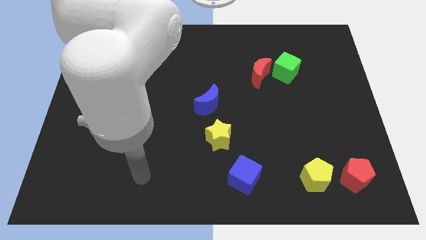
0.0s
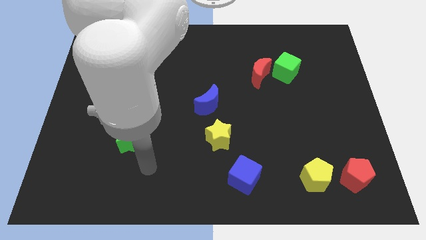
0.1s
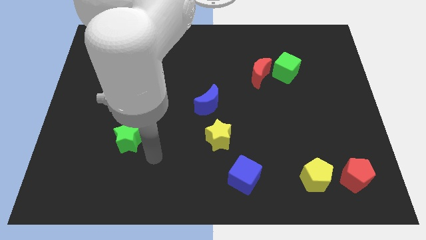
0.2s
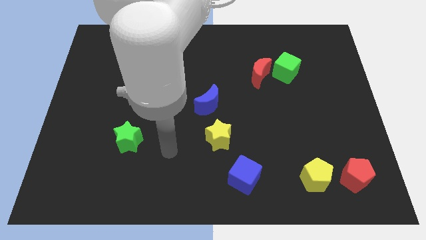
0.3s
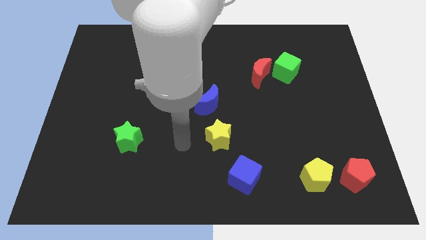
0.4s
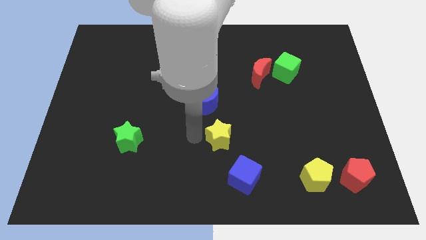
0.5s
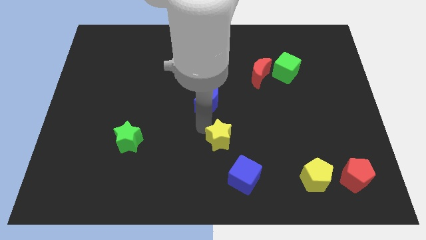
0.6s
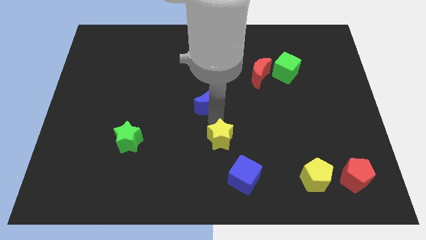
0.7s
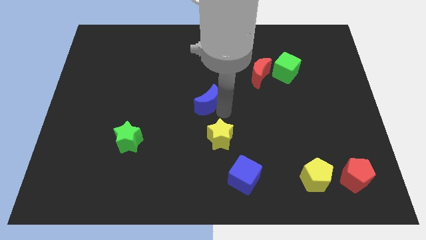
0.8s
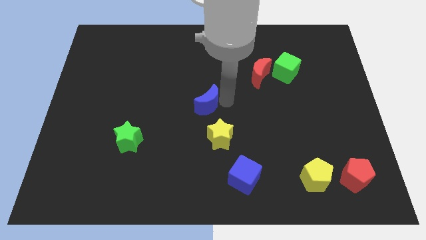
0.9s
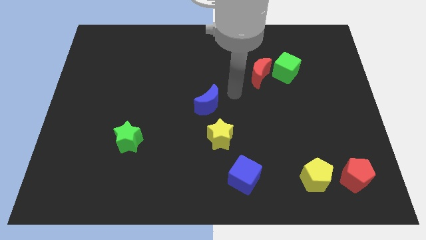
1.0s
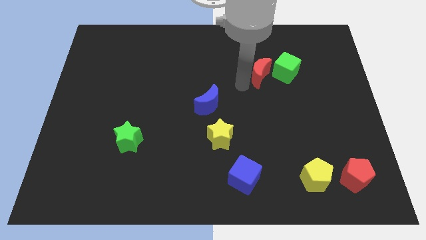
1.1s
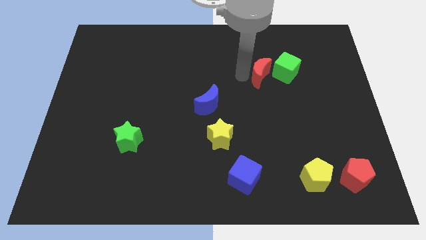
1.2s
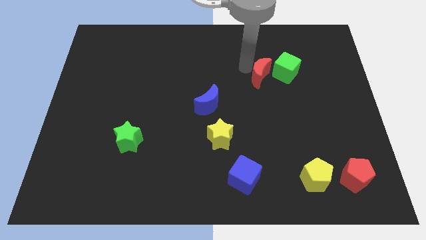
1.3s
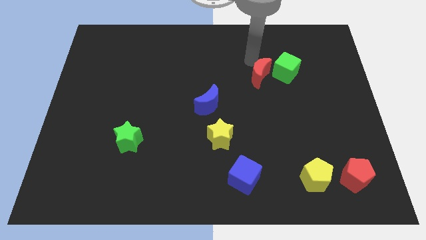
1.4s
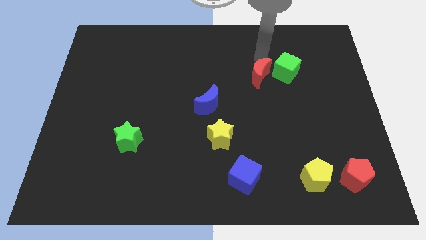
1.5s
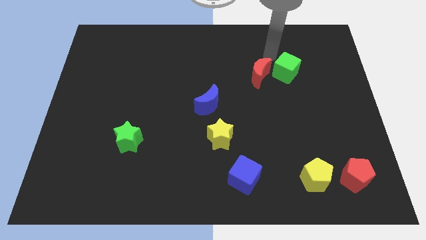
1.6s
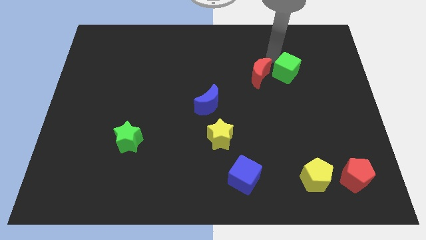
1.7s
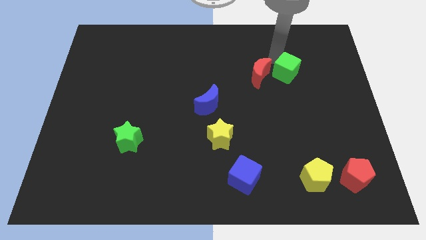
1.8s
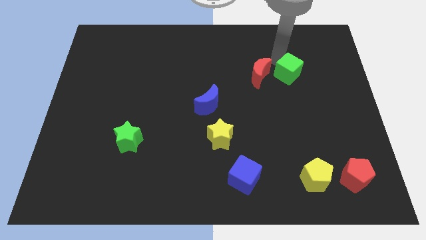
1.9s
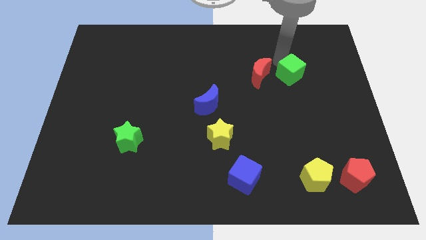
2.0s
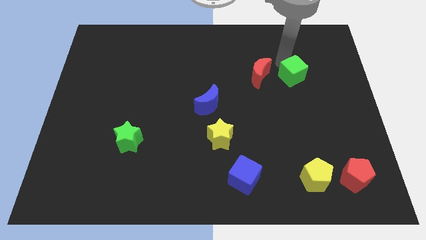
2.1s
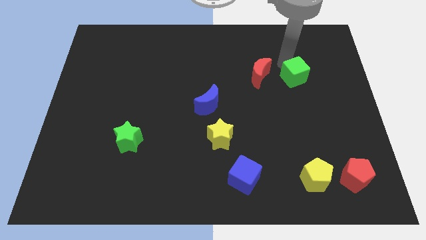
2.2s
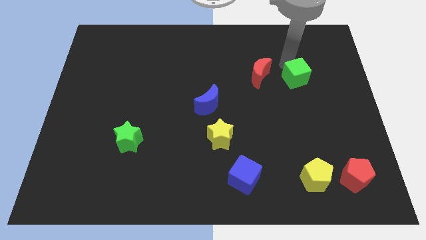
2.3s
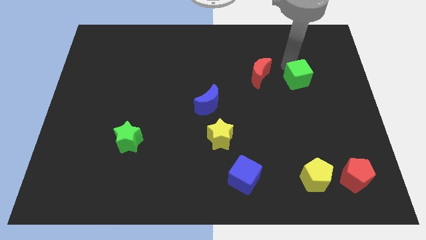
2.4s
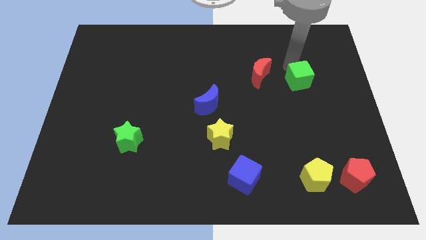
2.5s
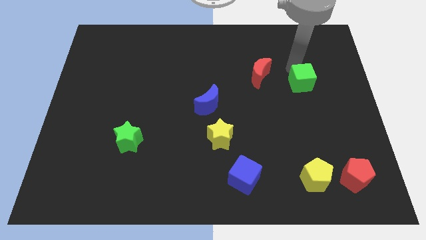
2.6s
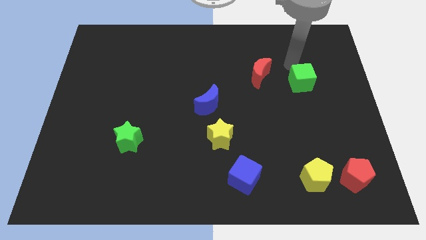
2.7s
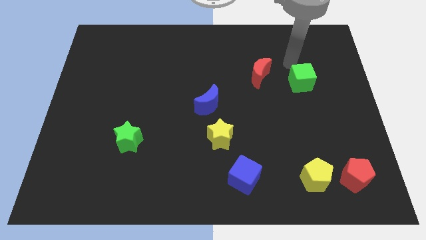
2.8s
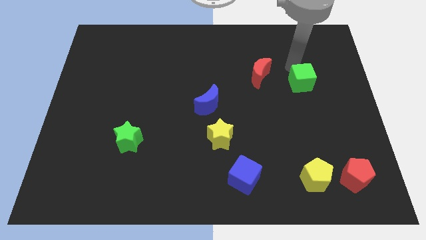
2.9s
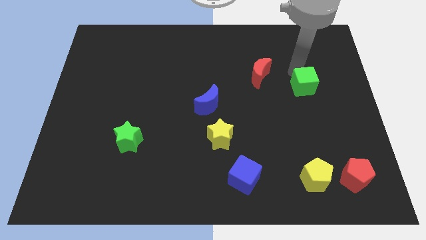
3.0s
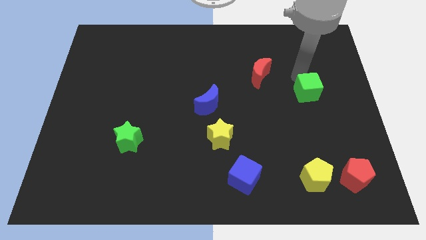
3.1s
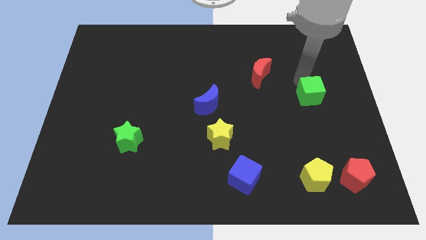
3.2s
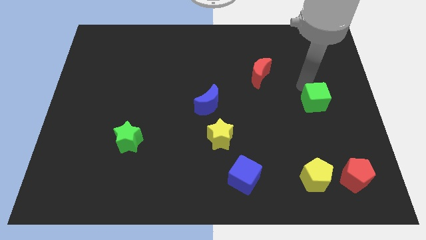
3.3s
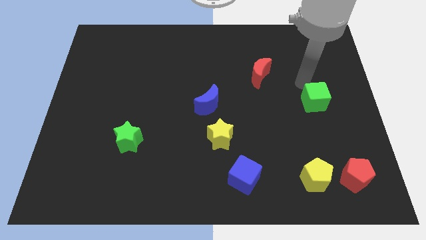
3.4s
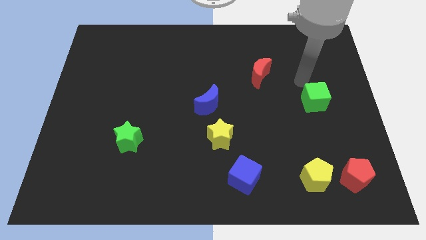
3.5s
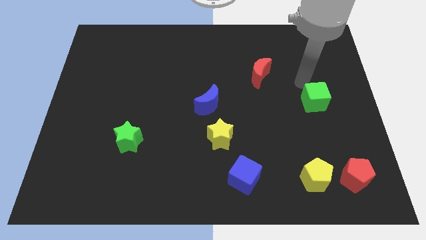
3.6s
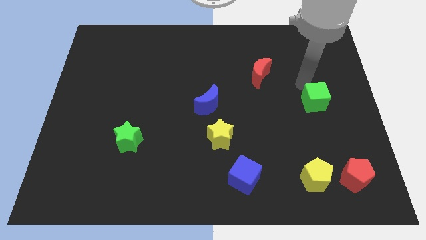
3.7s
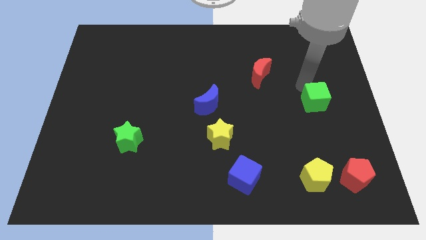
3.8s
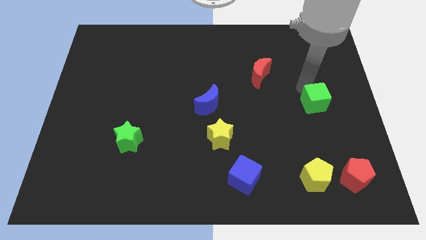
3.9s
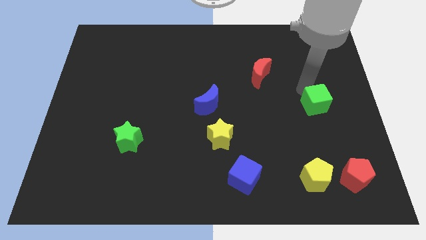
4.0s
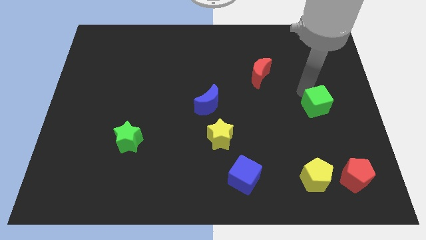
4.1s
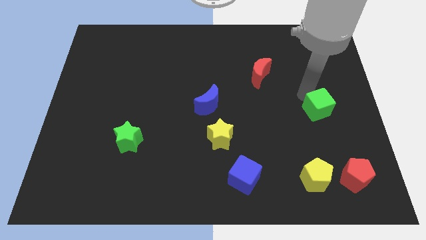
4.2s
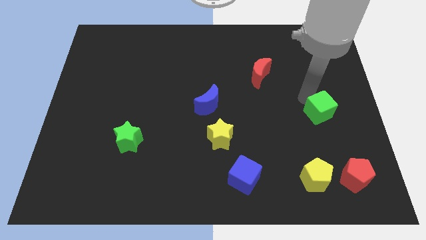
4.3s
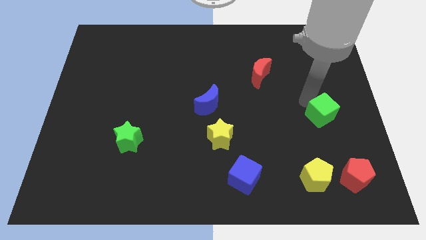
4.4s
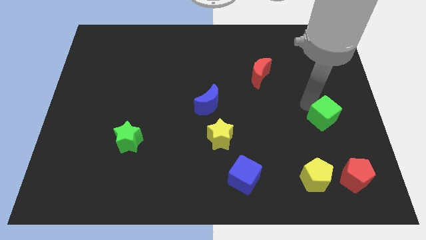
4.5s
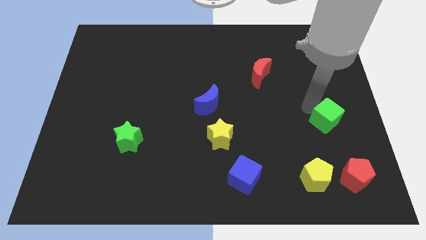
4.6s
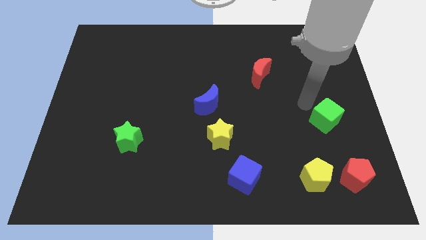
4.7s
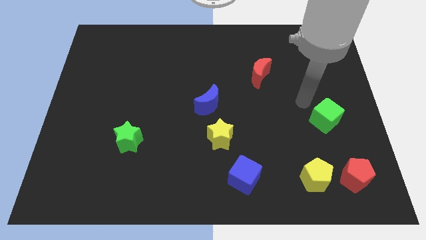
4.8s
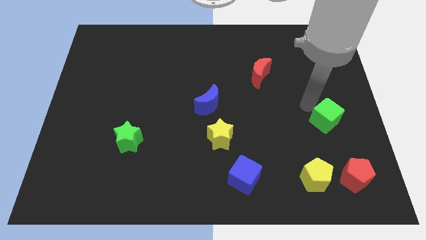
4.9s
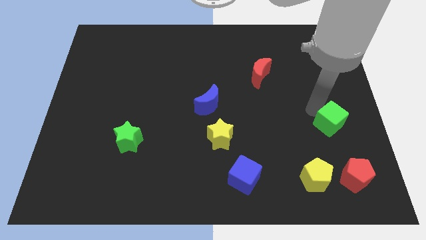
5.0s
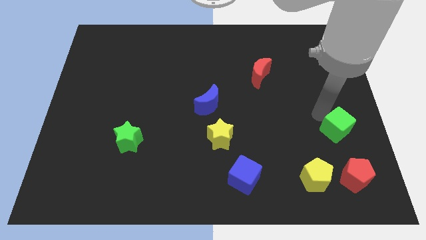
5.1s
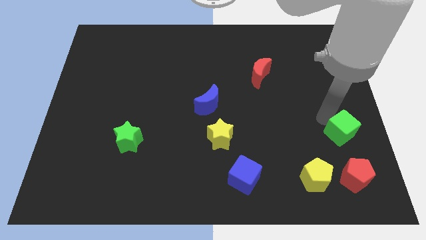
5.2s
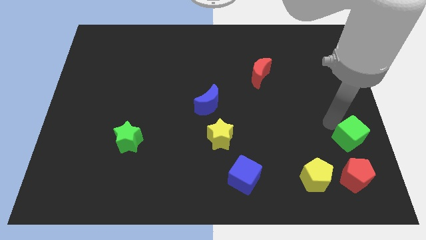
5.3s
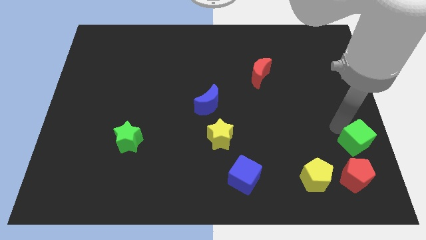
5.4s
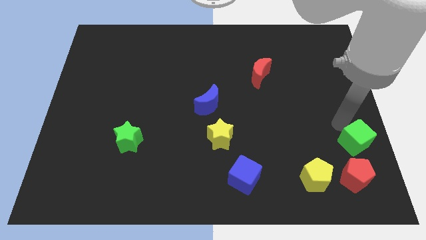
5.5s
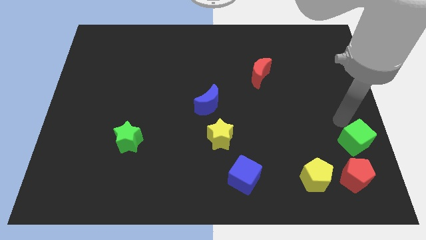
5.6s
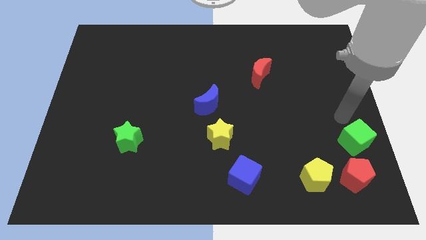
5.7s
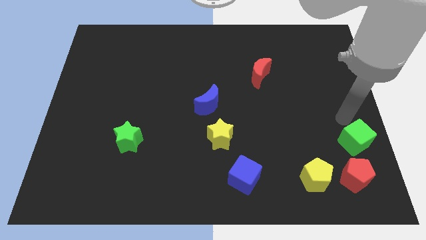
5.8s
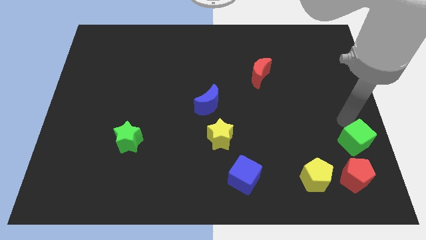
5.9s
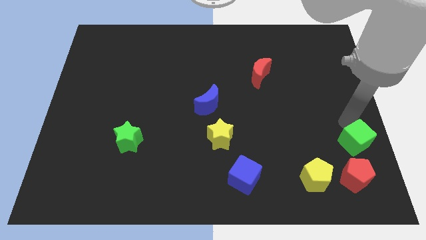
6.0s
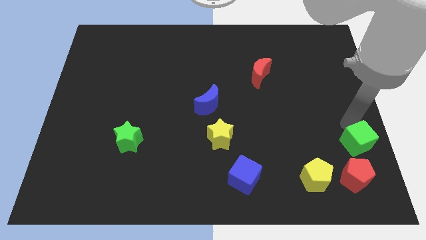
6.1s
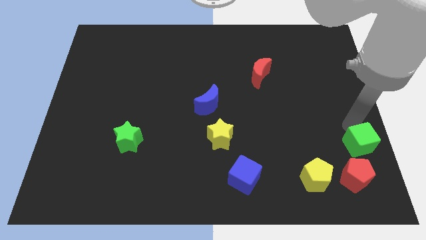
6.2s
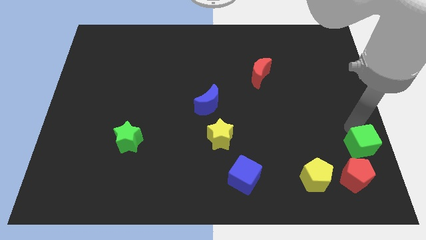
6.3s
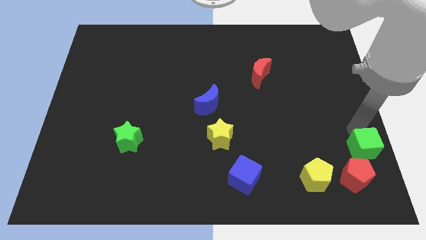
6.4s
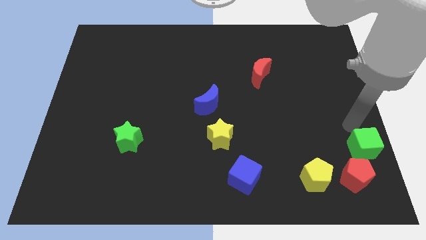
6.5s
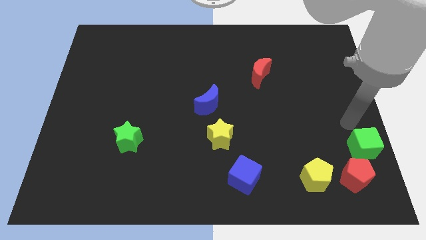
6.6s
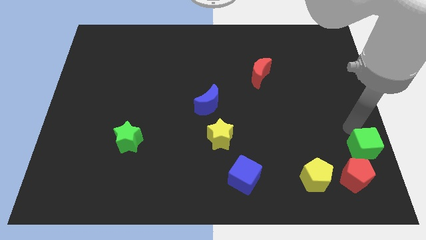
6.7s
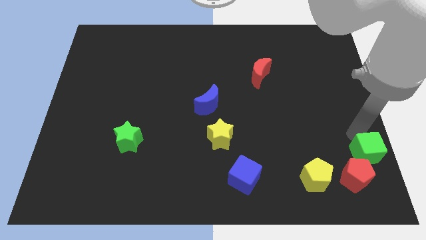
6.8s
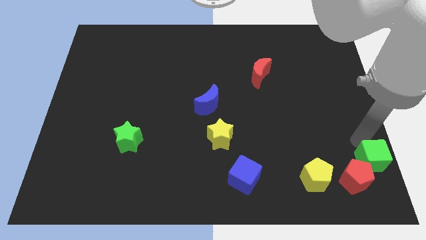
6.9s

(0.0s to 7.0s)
push the green cube to the lower right corner
